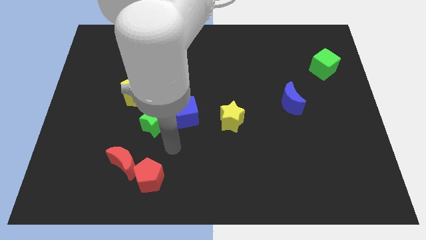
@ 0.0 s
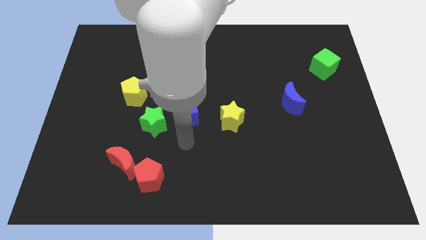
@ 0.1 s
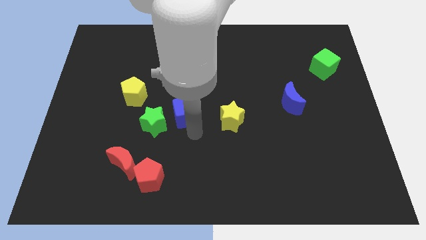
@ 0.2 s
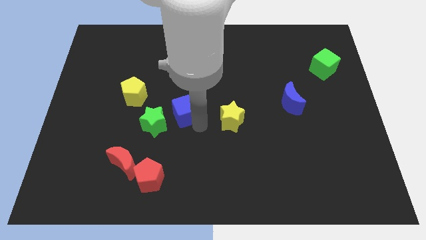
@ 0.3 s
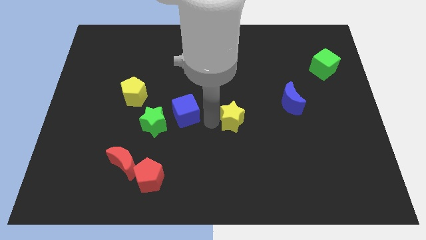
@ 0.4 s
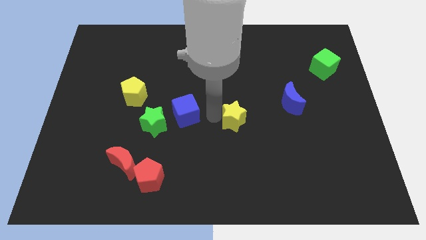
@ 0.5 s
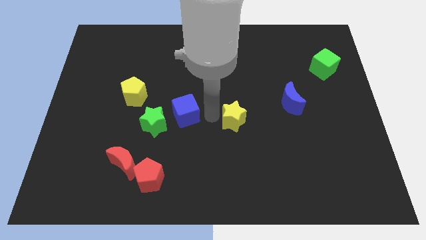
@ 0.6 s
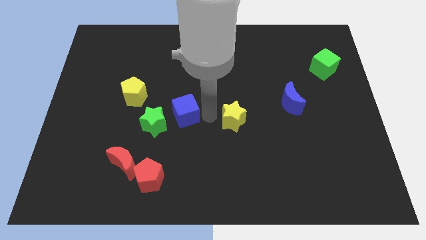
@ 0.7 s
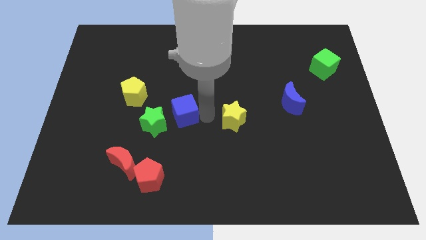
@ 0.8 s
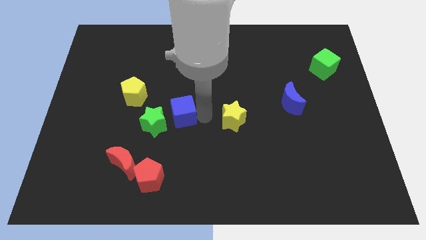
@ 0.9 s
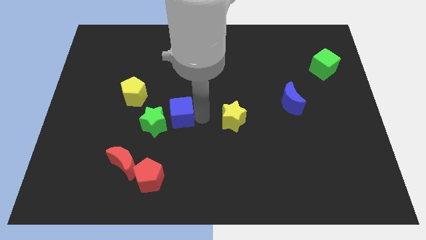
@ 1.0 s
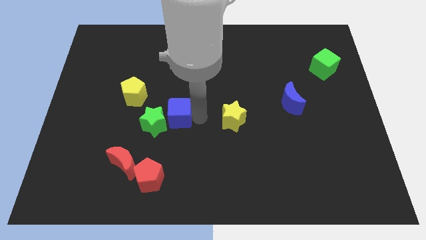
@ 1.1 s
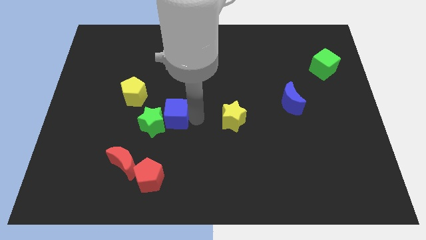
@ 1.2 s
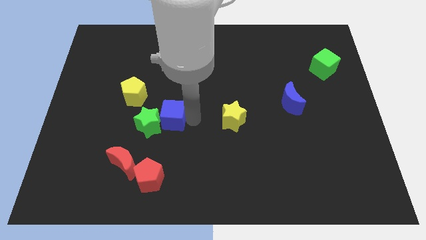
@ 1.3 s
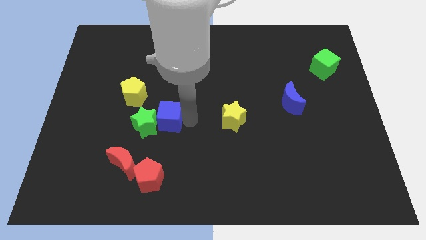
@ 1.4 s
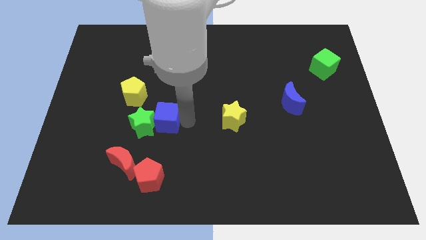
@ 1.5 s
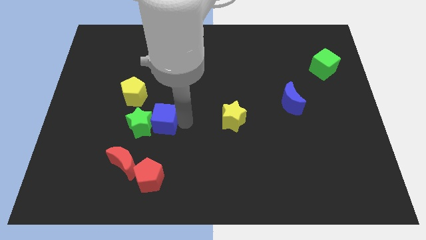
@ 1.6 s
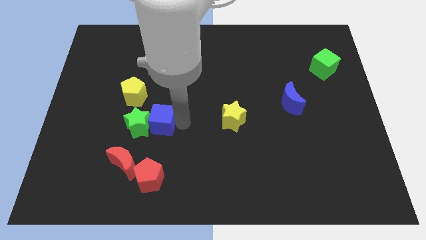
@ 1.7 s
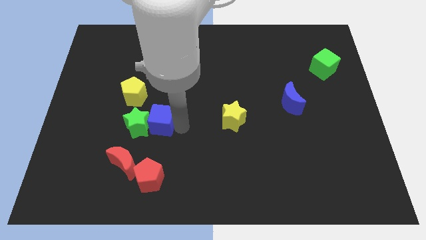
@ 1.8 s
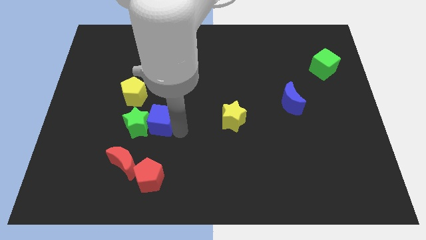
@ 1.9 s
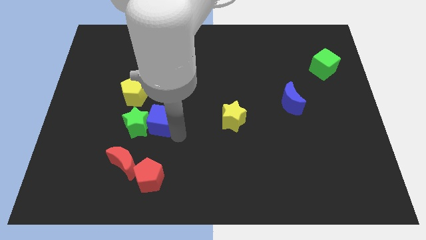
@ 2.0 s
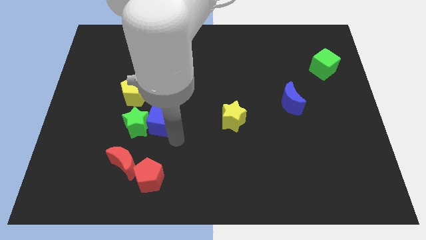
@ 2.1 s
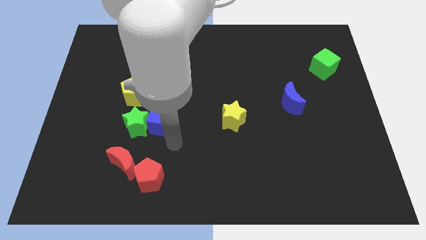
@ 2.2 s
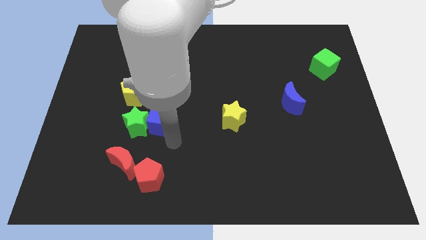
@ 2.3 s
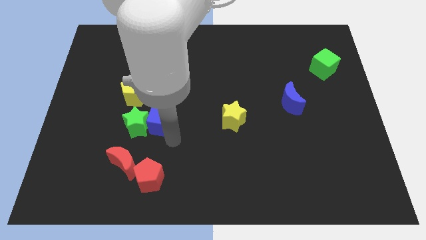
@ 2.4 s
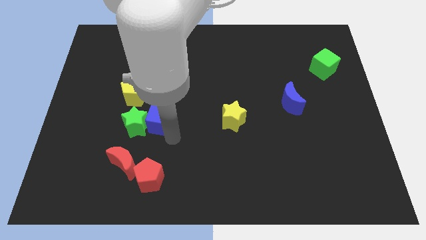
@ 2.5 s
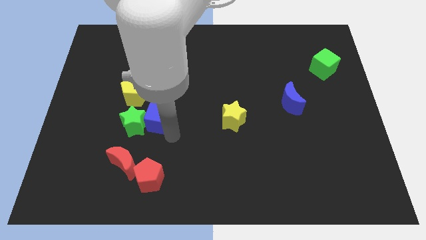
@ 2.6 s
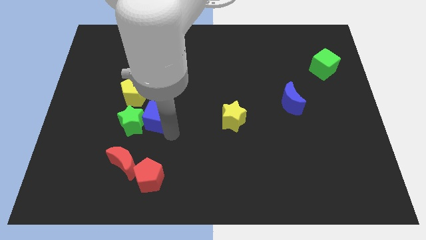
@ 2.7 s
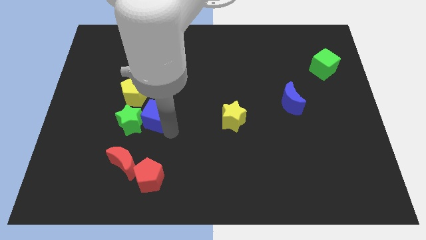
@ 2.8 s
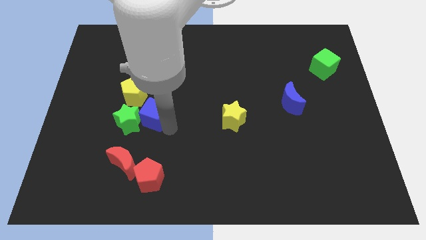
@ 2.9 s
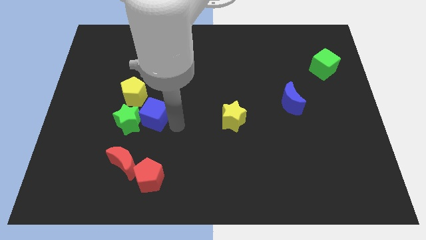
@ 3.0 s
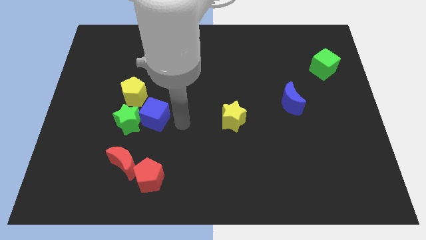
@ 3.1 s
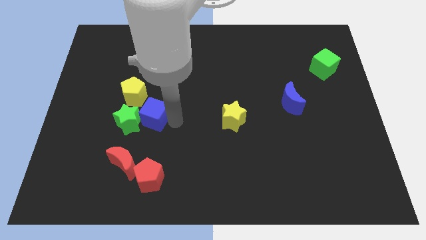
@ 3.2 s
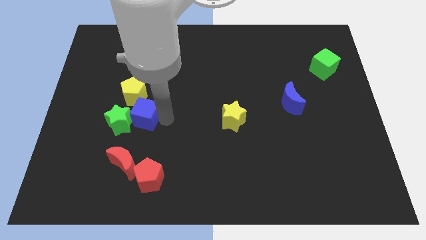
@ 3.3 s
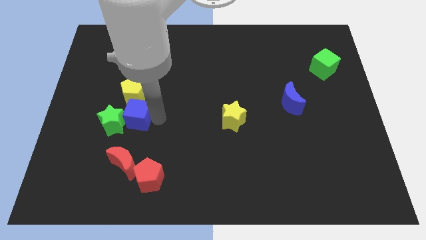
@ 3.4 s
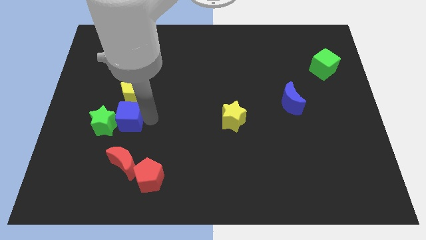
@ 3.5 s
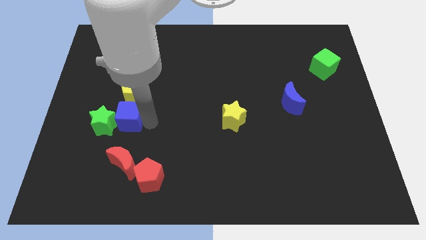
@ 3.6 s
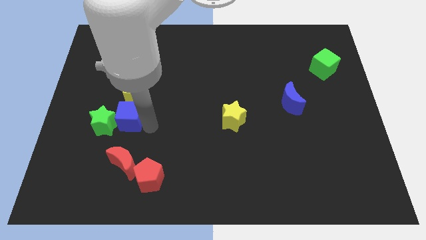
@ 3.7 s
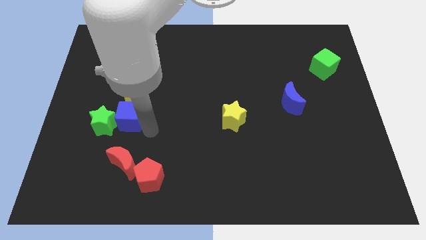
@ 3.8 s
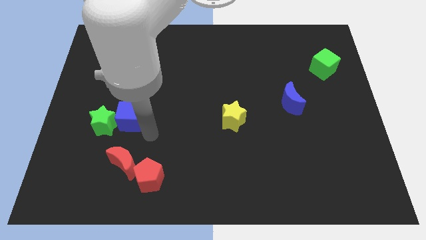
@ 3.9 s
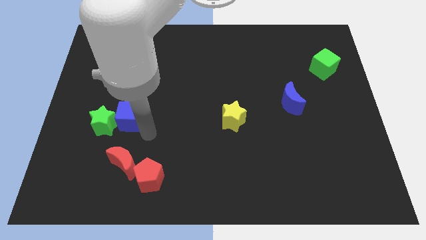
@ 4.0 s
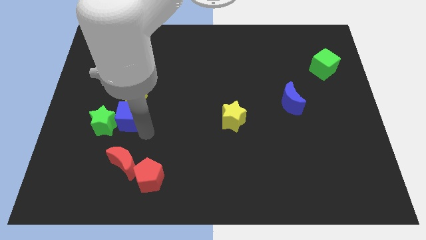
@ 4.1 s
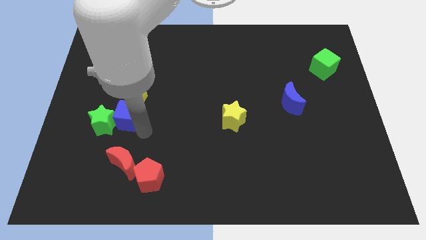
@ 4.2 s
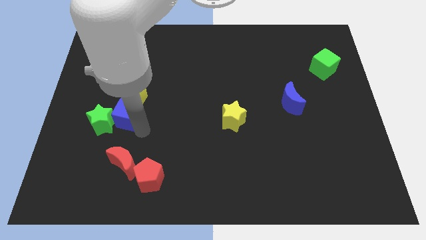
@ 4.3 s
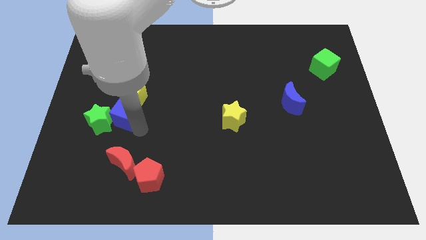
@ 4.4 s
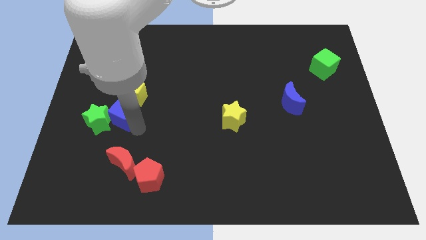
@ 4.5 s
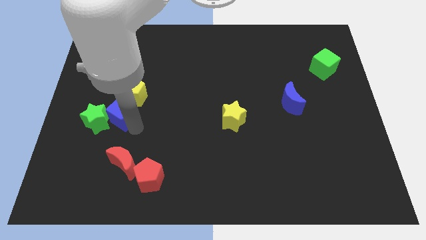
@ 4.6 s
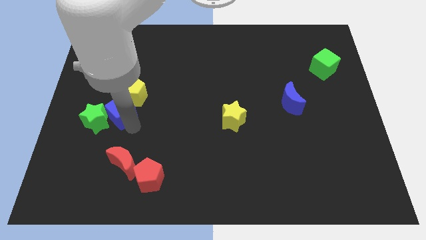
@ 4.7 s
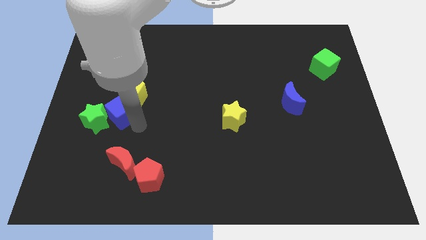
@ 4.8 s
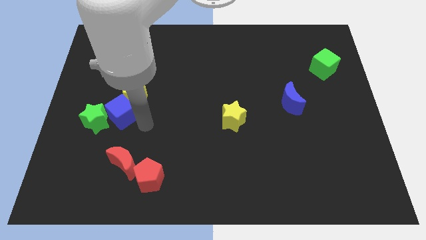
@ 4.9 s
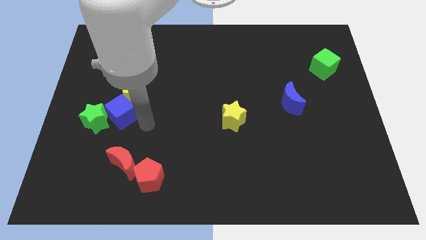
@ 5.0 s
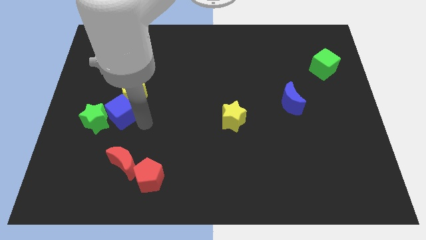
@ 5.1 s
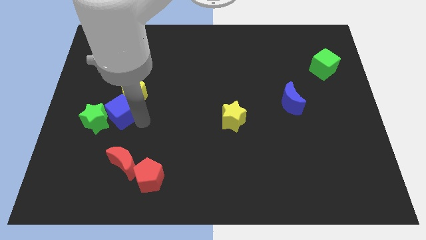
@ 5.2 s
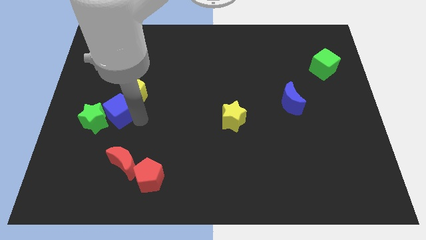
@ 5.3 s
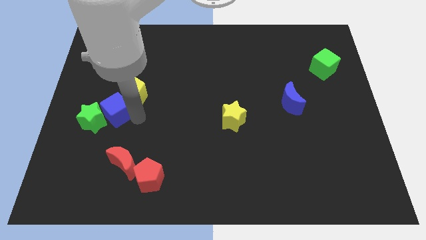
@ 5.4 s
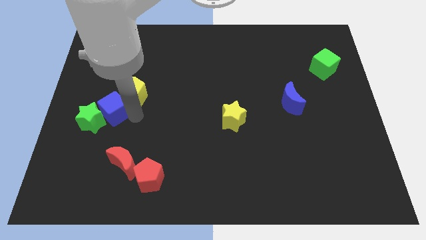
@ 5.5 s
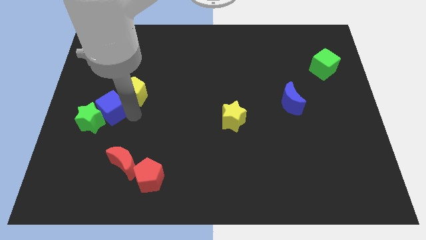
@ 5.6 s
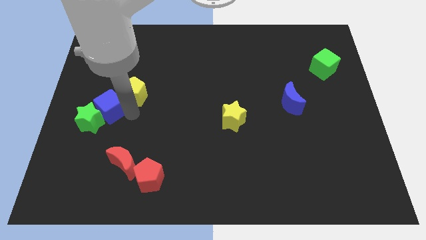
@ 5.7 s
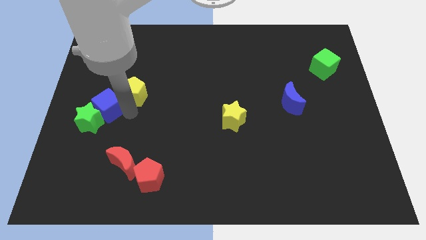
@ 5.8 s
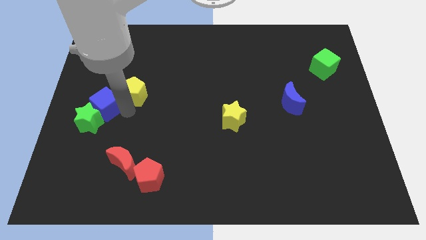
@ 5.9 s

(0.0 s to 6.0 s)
push the blue cube to the left side
